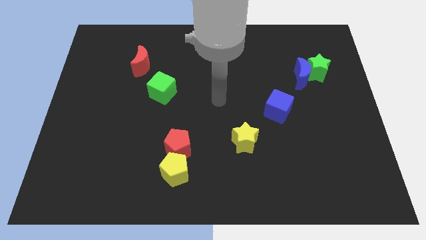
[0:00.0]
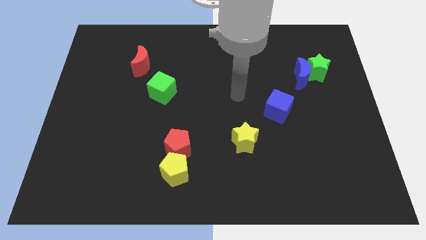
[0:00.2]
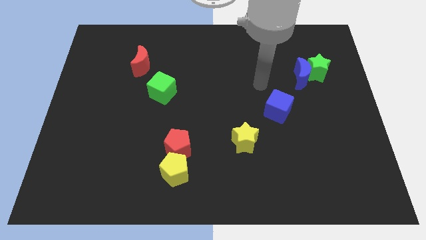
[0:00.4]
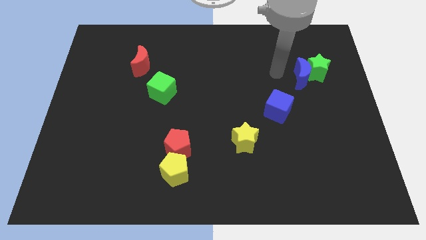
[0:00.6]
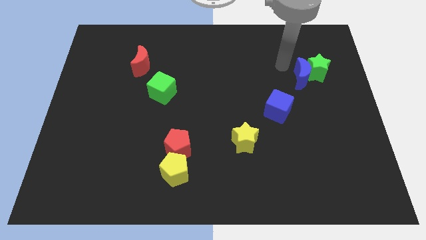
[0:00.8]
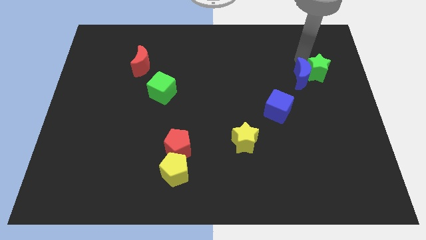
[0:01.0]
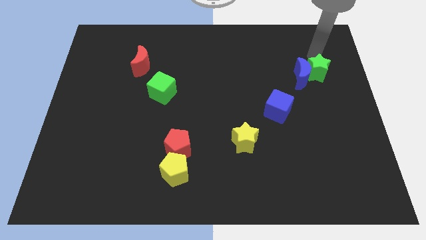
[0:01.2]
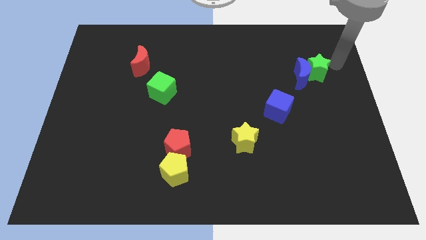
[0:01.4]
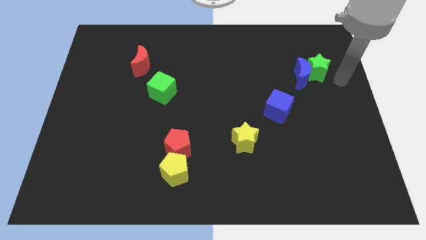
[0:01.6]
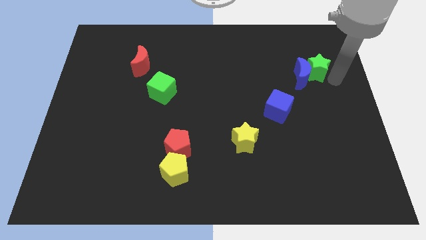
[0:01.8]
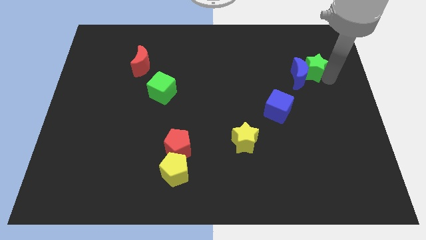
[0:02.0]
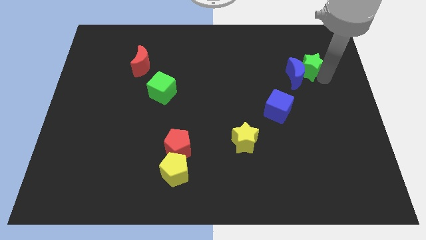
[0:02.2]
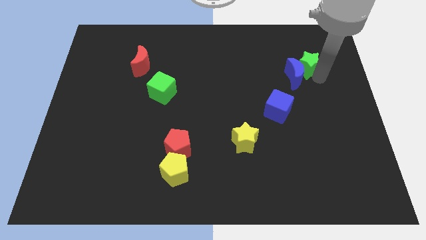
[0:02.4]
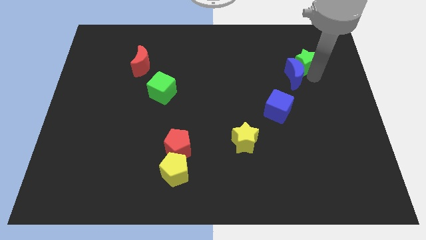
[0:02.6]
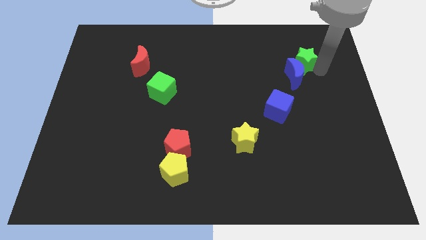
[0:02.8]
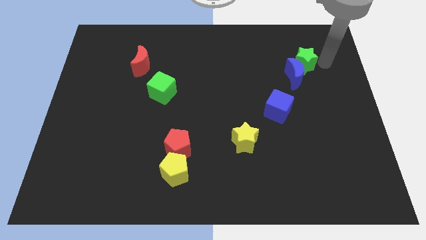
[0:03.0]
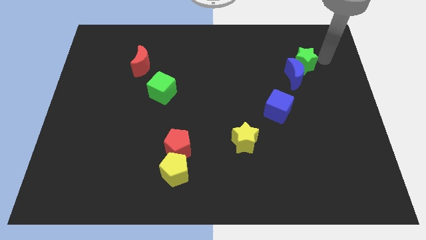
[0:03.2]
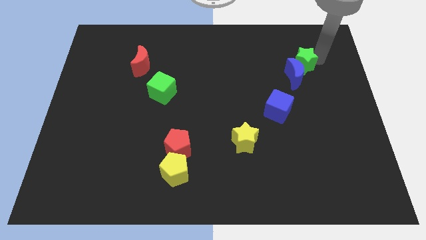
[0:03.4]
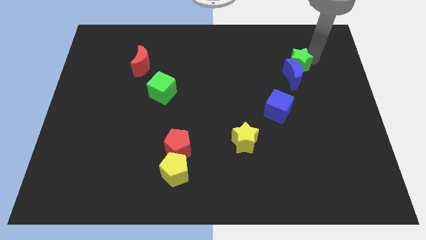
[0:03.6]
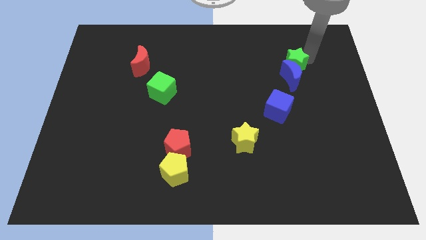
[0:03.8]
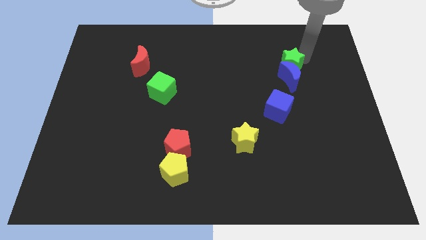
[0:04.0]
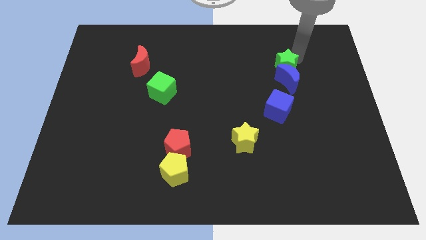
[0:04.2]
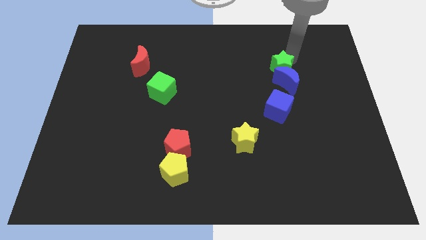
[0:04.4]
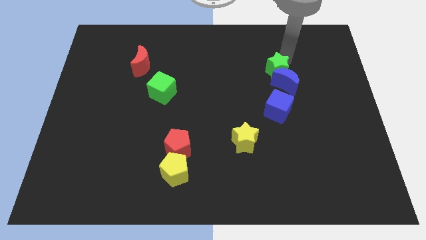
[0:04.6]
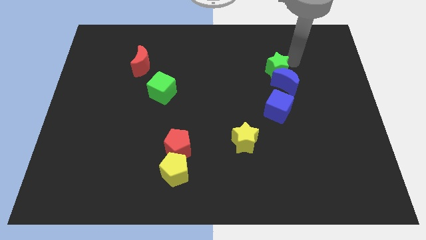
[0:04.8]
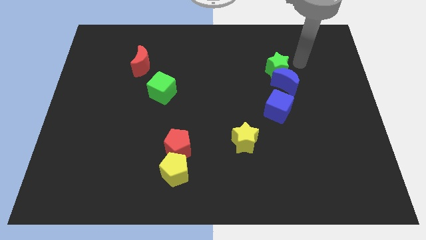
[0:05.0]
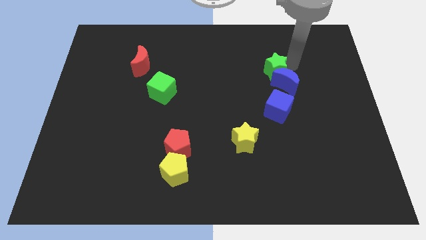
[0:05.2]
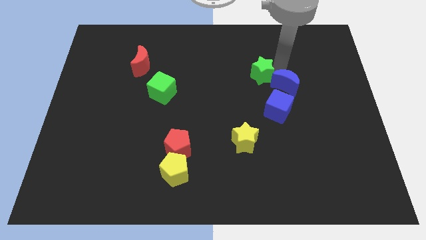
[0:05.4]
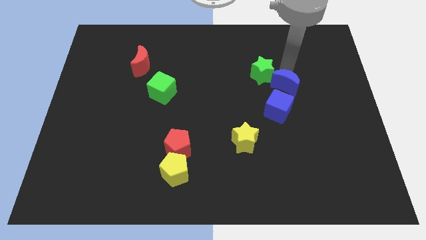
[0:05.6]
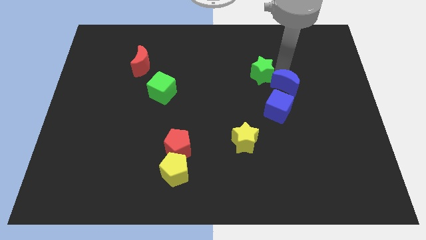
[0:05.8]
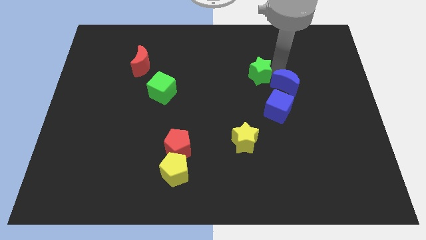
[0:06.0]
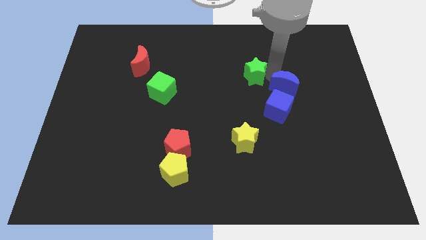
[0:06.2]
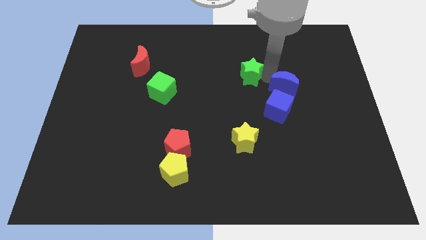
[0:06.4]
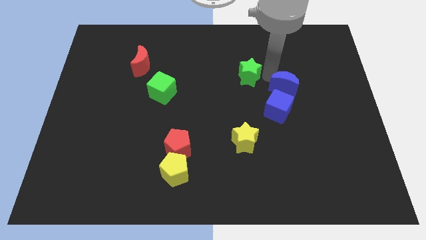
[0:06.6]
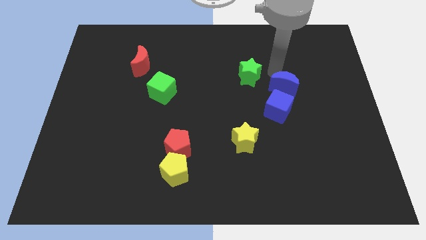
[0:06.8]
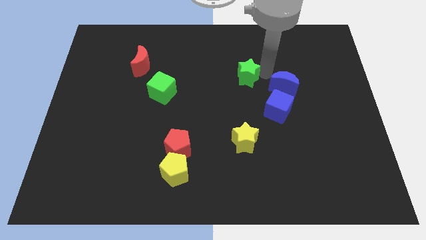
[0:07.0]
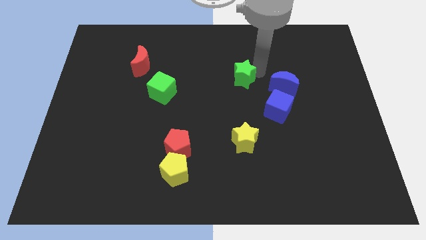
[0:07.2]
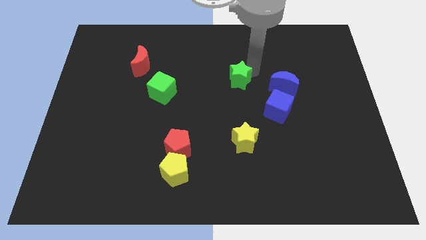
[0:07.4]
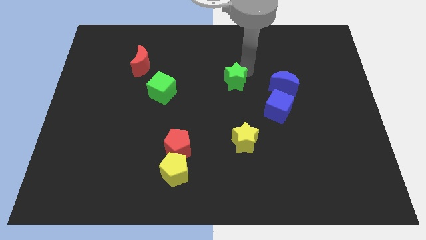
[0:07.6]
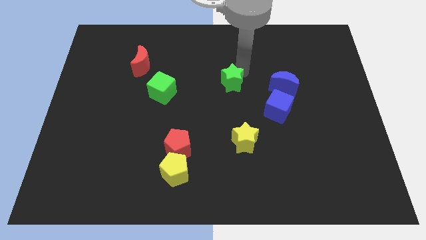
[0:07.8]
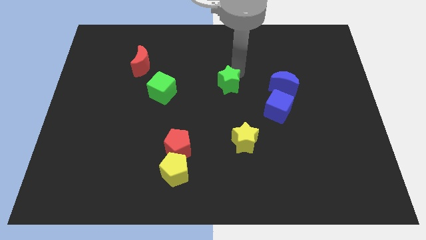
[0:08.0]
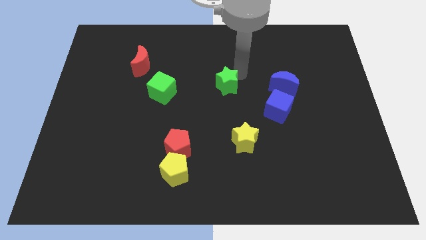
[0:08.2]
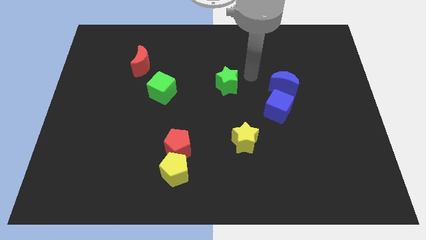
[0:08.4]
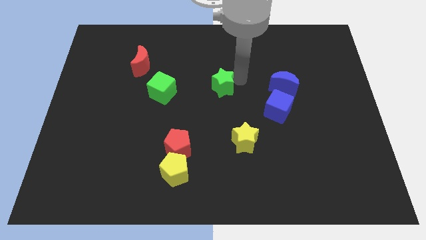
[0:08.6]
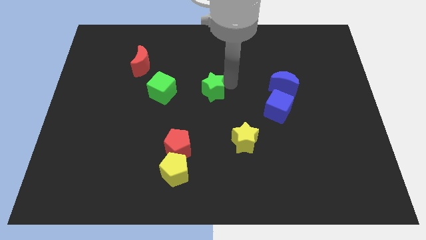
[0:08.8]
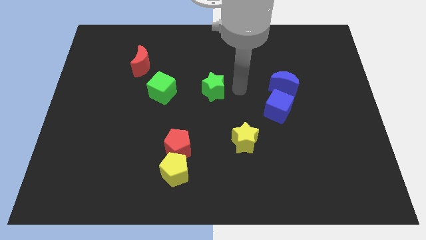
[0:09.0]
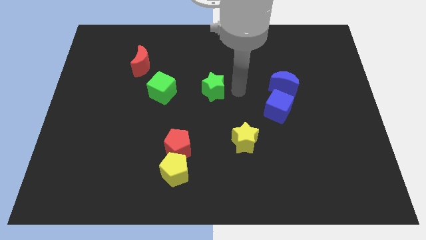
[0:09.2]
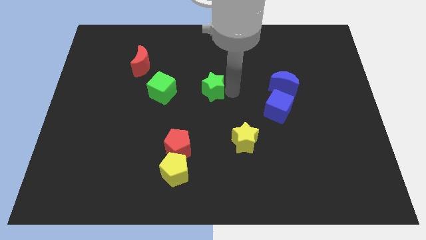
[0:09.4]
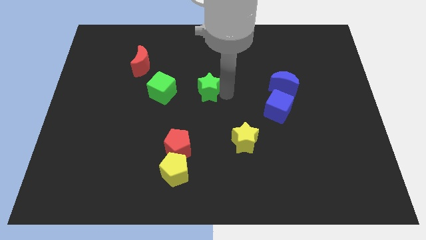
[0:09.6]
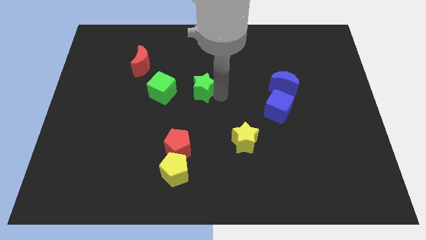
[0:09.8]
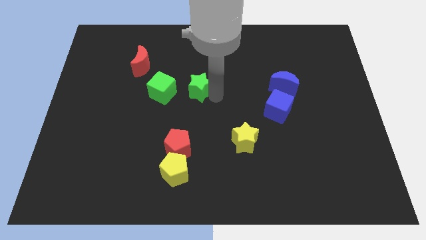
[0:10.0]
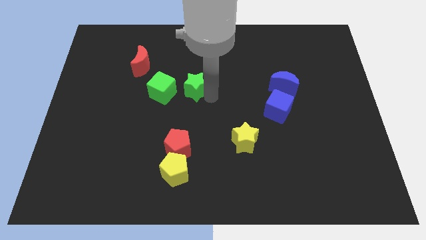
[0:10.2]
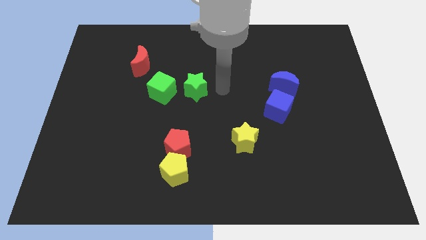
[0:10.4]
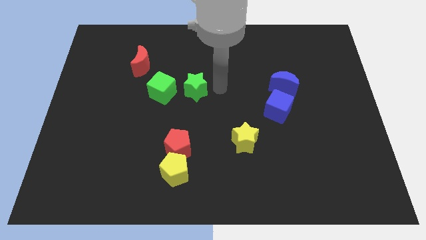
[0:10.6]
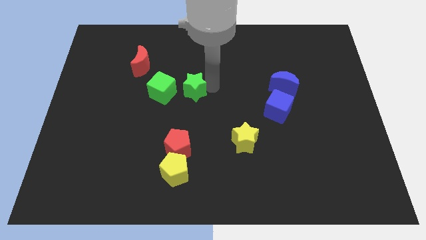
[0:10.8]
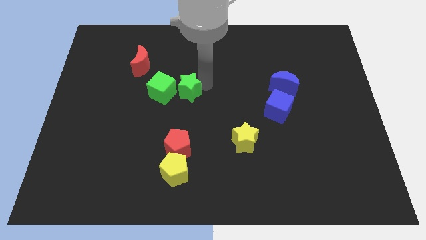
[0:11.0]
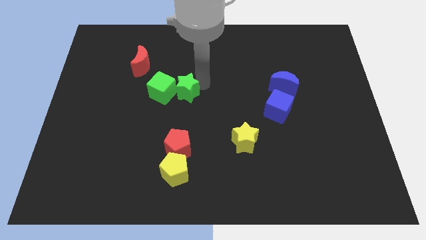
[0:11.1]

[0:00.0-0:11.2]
slide the green star next to the green cube

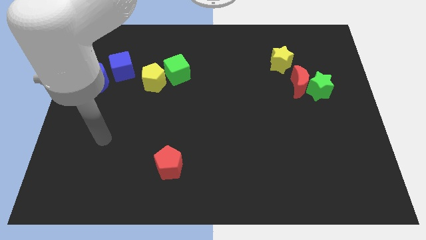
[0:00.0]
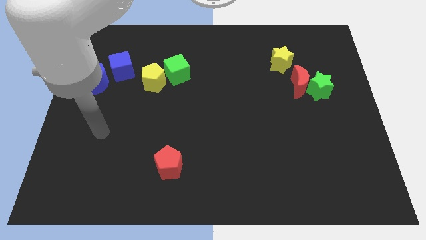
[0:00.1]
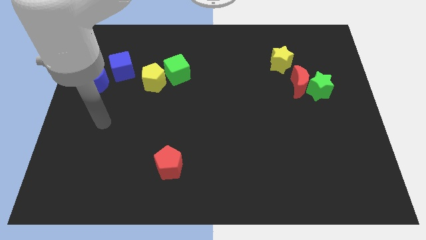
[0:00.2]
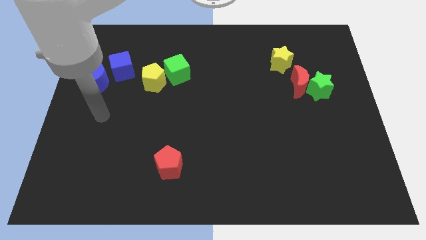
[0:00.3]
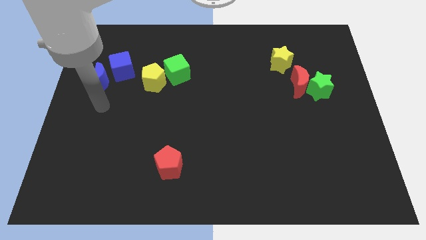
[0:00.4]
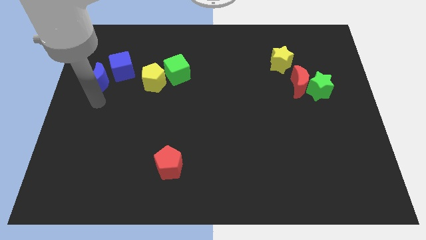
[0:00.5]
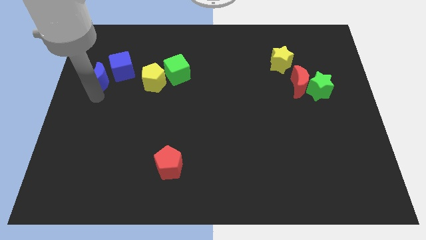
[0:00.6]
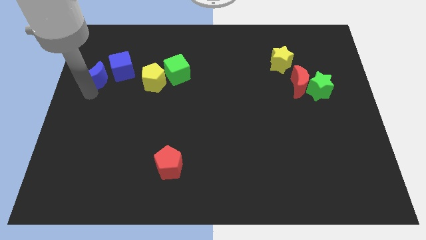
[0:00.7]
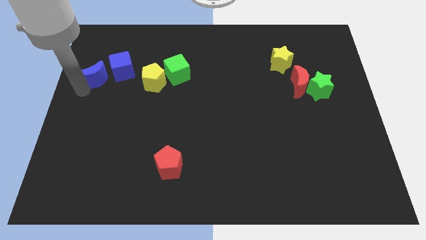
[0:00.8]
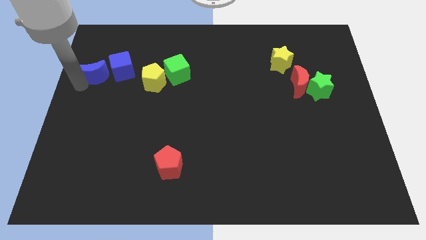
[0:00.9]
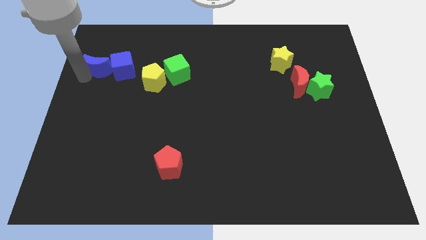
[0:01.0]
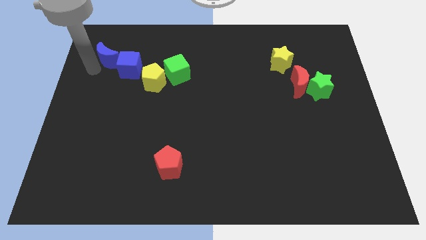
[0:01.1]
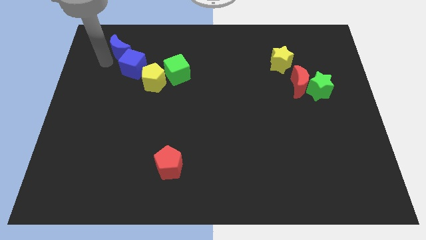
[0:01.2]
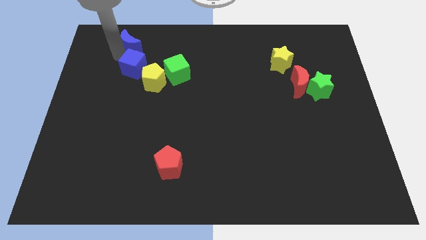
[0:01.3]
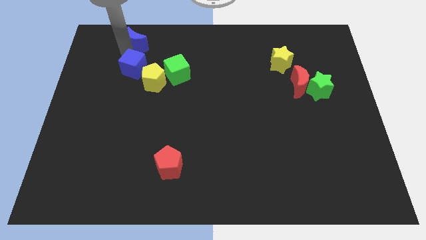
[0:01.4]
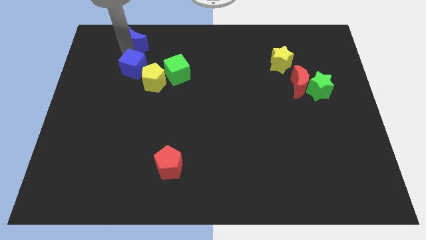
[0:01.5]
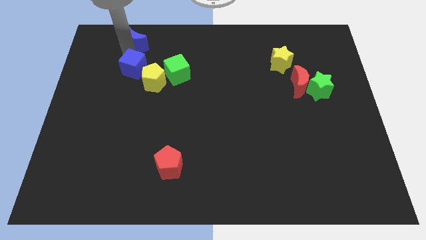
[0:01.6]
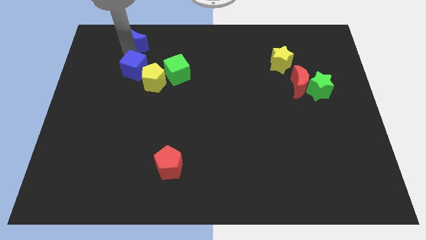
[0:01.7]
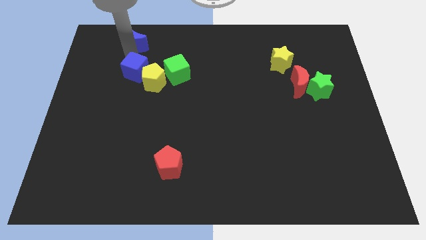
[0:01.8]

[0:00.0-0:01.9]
move the blue cube to the yellow pentagon

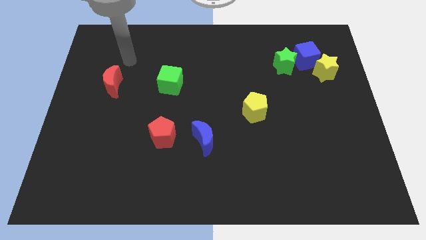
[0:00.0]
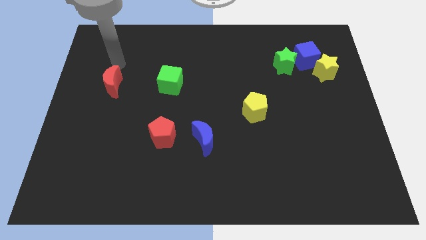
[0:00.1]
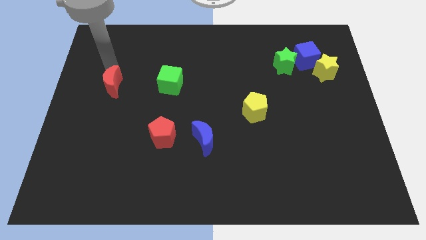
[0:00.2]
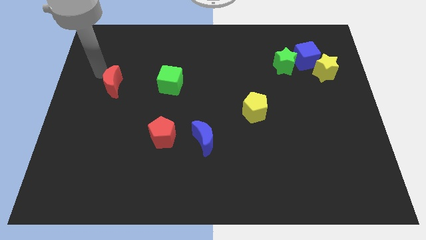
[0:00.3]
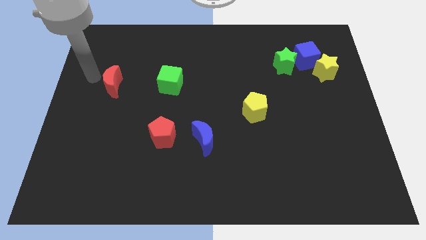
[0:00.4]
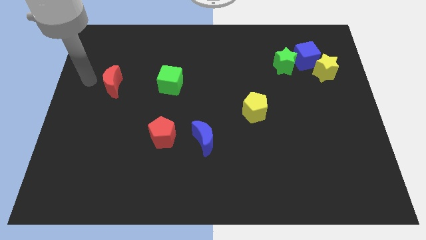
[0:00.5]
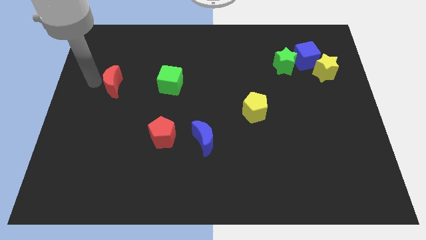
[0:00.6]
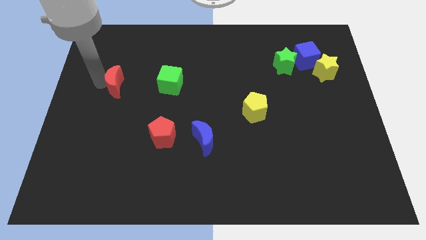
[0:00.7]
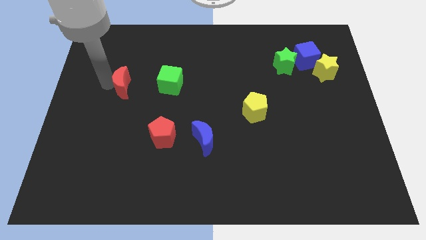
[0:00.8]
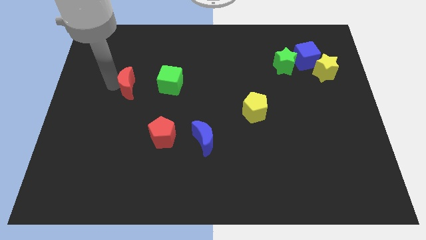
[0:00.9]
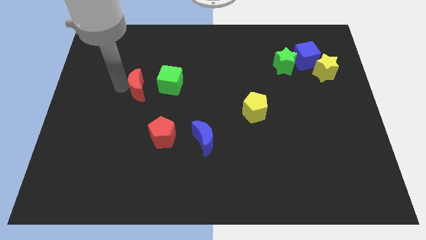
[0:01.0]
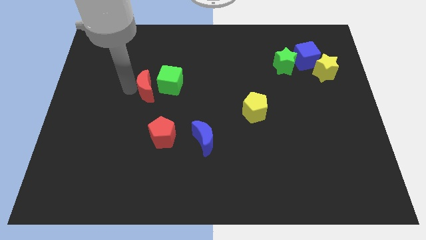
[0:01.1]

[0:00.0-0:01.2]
move the red moon to the green cube
